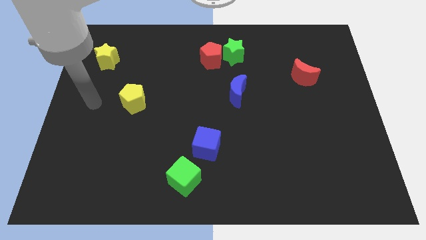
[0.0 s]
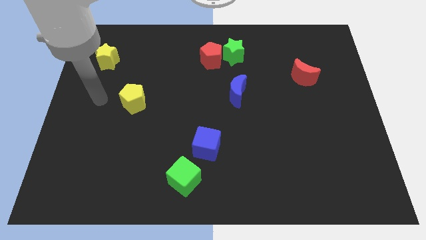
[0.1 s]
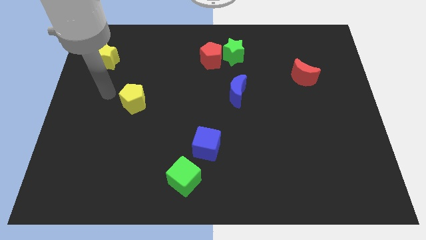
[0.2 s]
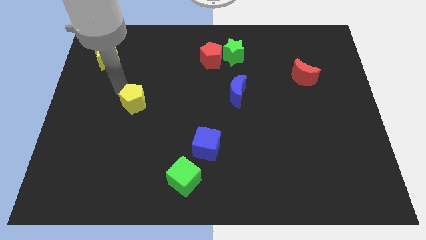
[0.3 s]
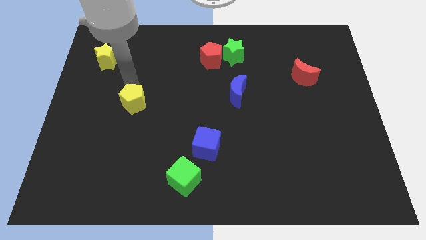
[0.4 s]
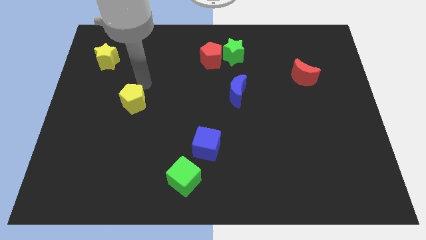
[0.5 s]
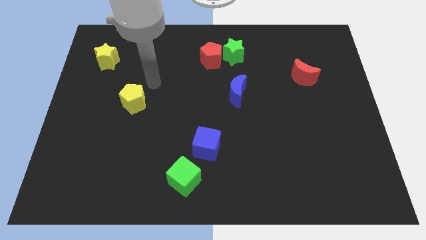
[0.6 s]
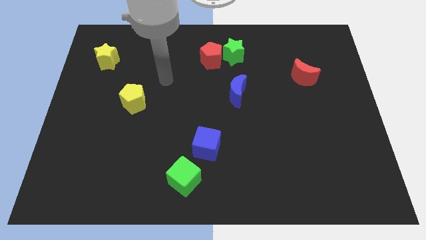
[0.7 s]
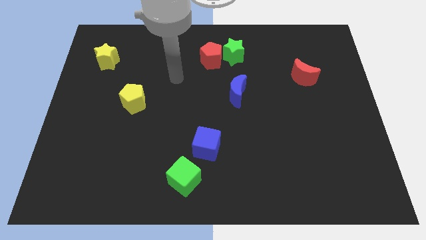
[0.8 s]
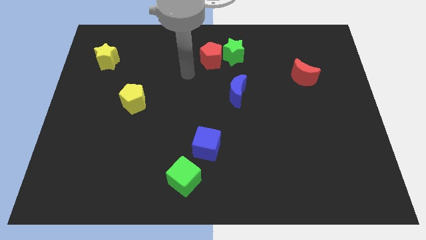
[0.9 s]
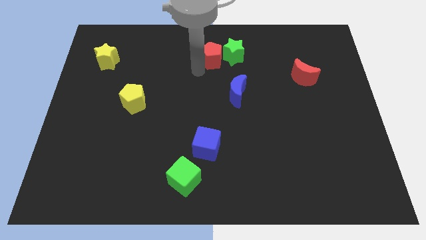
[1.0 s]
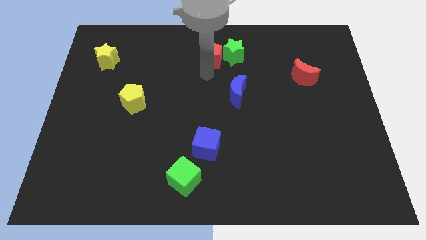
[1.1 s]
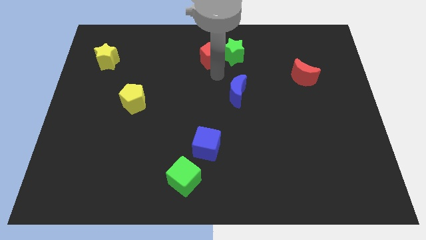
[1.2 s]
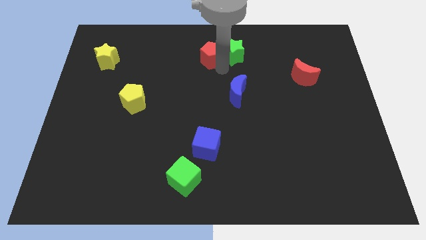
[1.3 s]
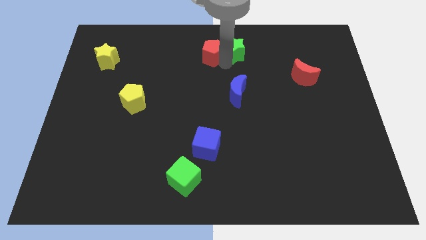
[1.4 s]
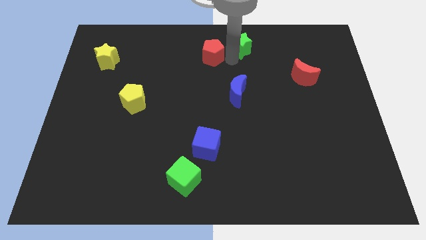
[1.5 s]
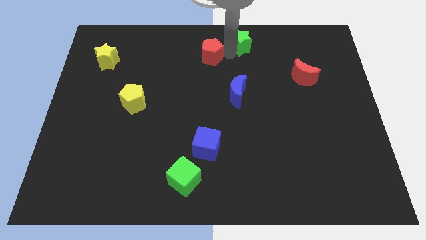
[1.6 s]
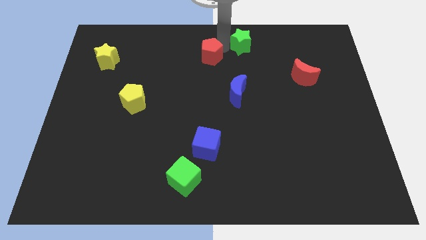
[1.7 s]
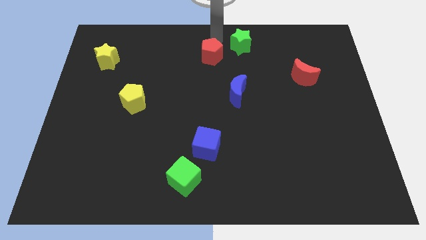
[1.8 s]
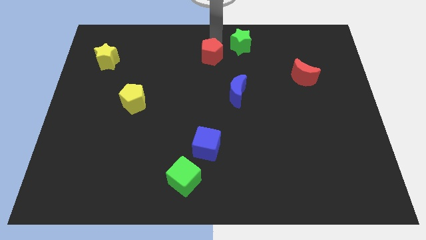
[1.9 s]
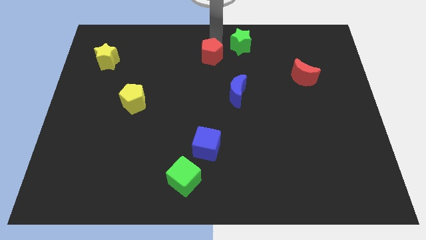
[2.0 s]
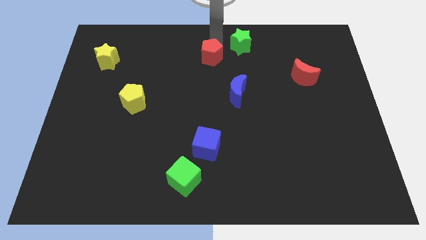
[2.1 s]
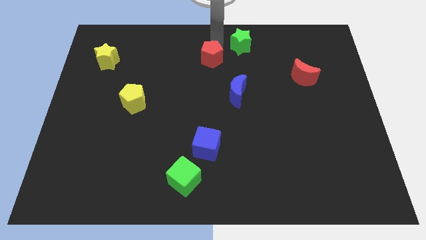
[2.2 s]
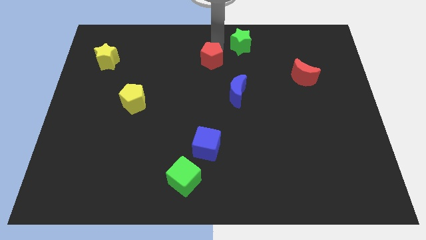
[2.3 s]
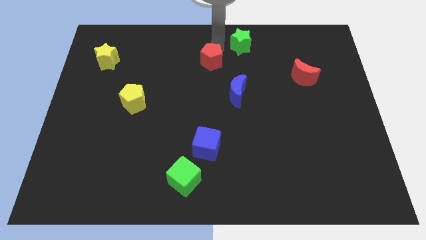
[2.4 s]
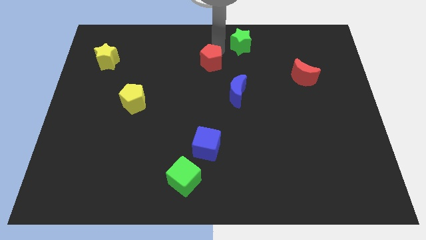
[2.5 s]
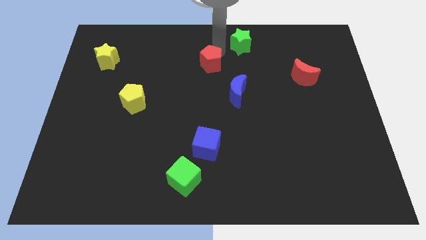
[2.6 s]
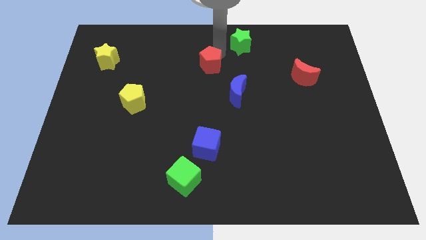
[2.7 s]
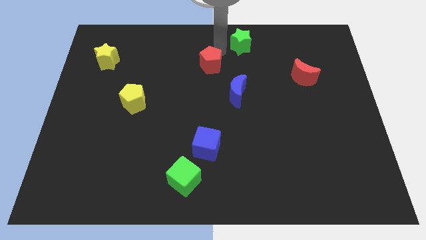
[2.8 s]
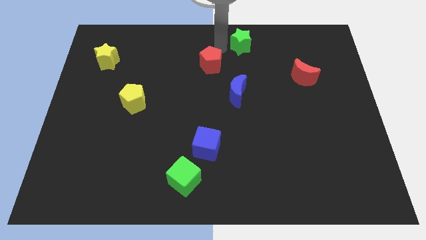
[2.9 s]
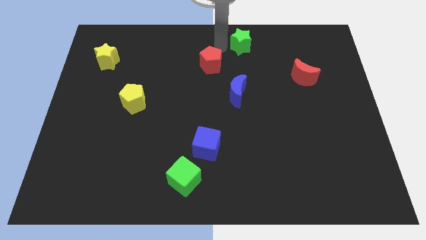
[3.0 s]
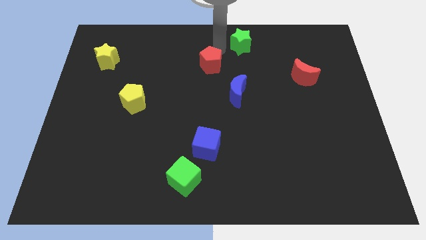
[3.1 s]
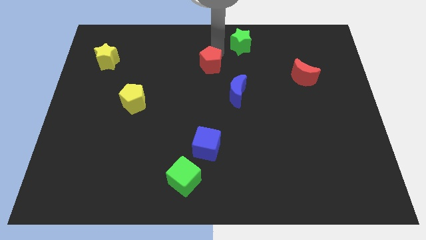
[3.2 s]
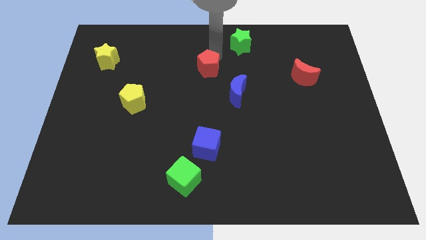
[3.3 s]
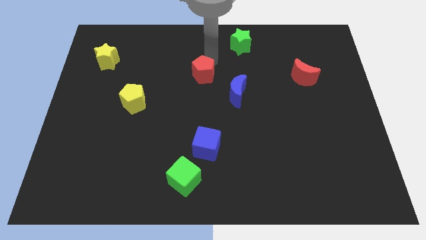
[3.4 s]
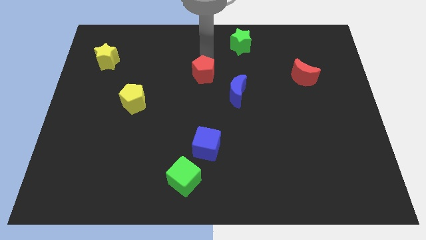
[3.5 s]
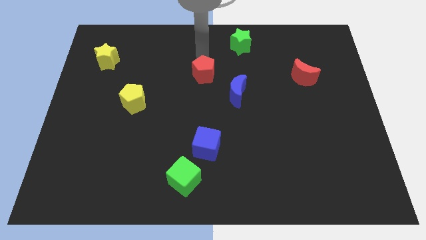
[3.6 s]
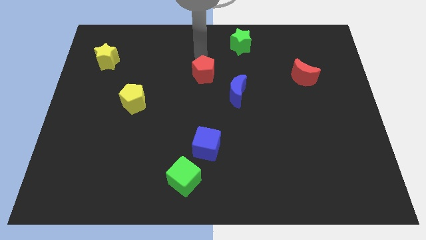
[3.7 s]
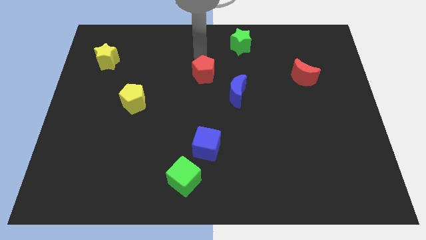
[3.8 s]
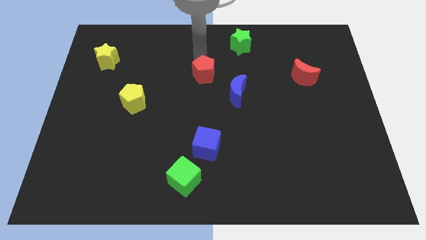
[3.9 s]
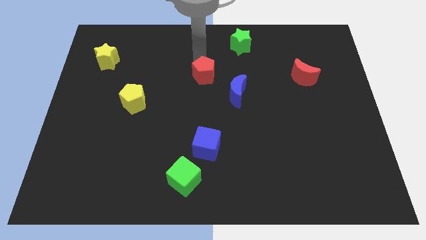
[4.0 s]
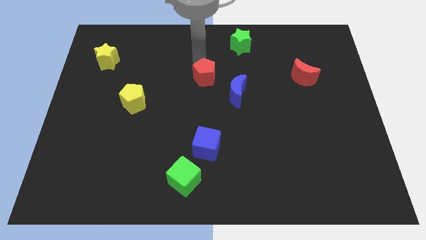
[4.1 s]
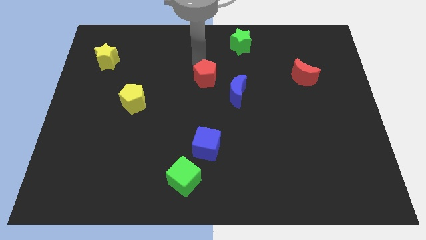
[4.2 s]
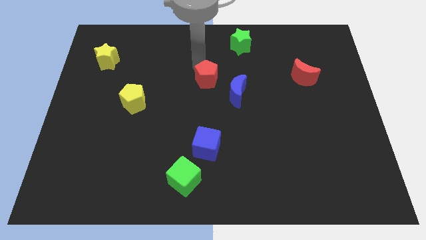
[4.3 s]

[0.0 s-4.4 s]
slightly slide the red pentagon down

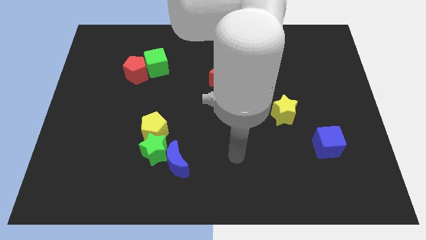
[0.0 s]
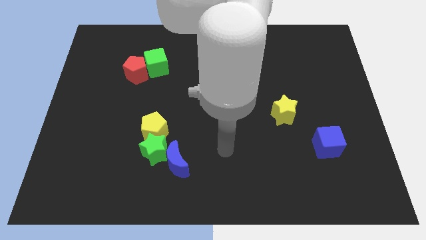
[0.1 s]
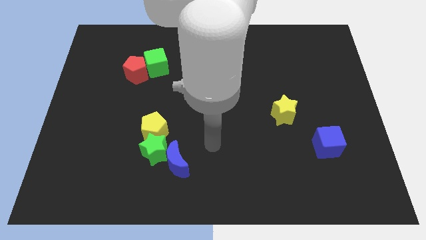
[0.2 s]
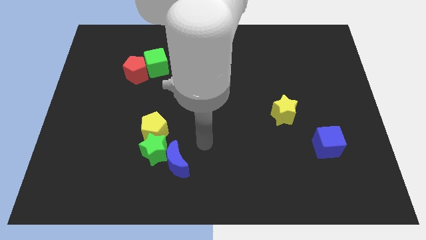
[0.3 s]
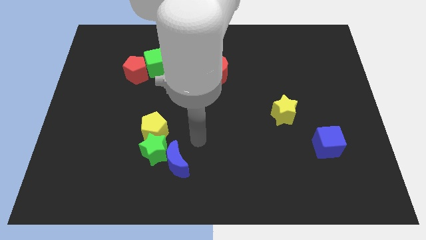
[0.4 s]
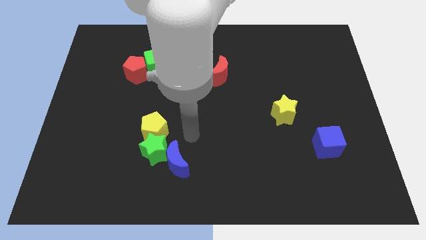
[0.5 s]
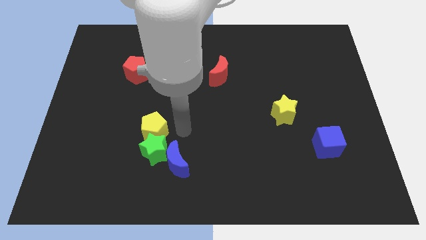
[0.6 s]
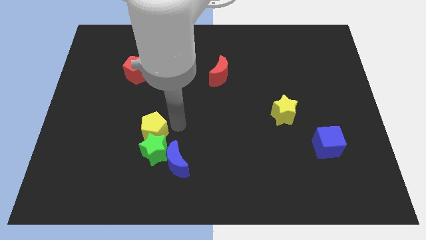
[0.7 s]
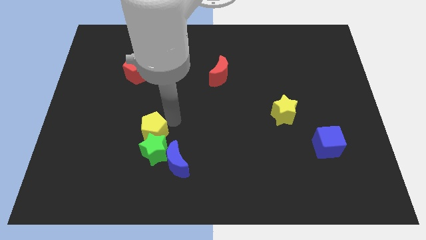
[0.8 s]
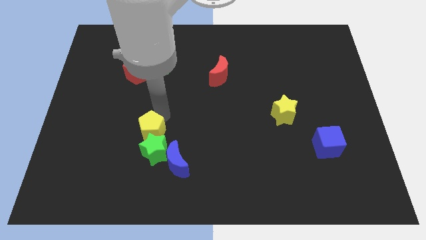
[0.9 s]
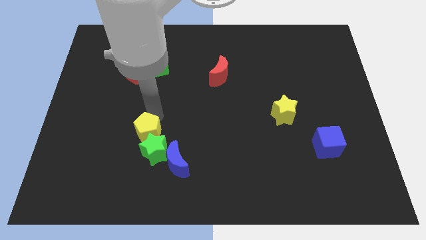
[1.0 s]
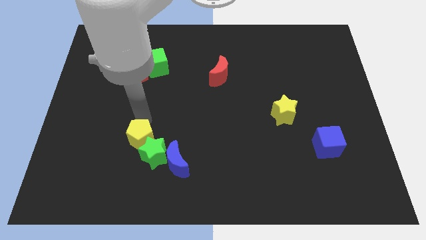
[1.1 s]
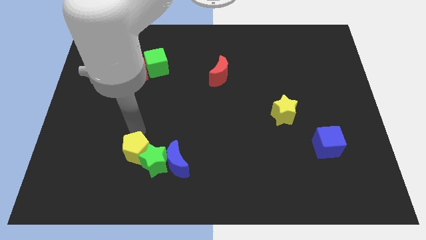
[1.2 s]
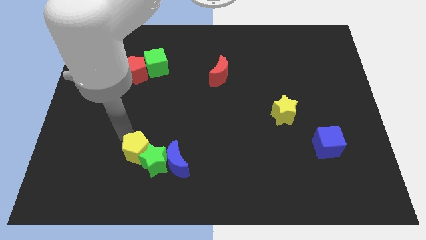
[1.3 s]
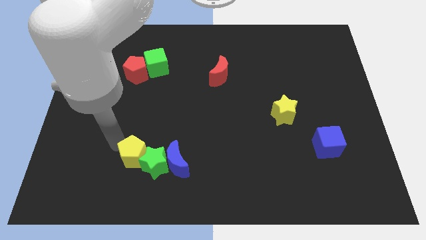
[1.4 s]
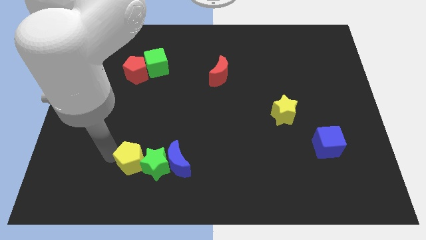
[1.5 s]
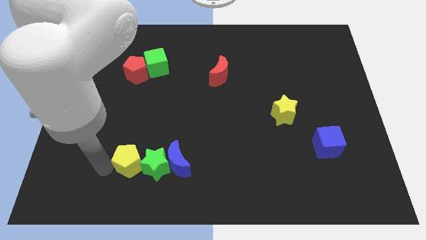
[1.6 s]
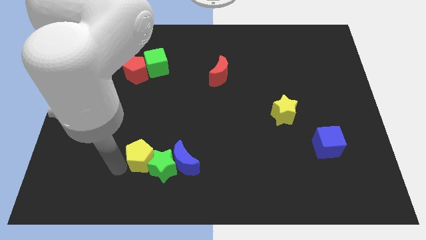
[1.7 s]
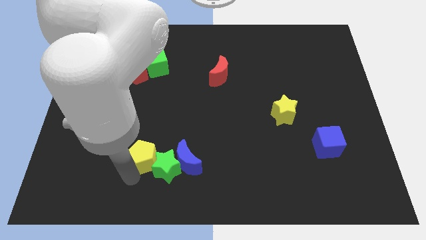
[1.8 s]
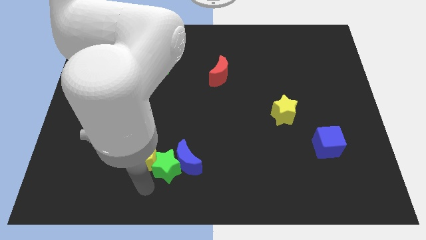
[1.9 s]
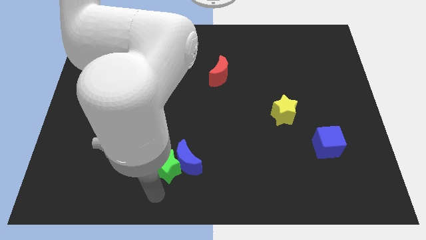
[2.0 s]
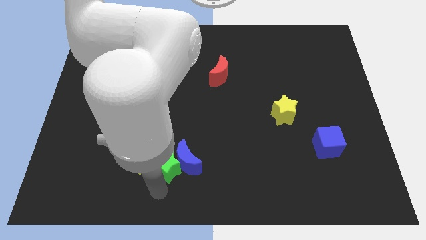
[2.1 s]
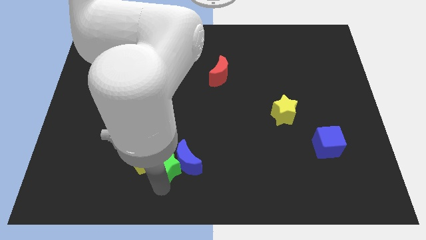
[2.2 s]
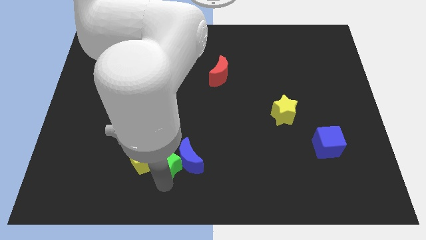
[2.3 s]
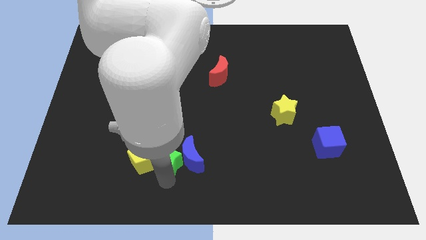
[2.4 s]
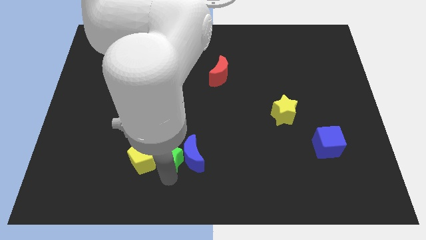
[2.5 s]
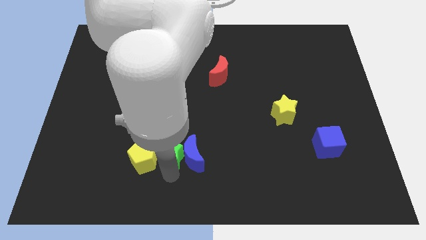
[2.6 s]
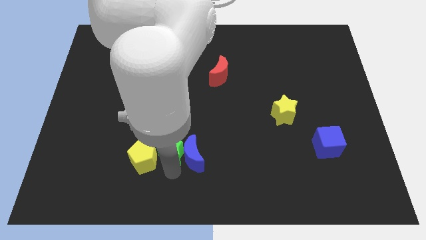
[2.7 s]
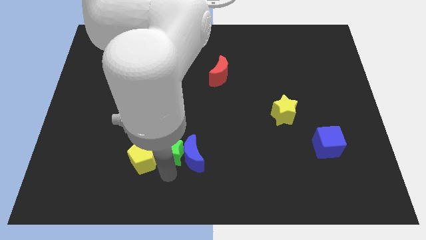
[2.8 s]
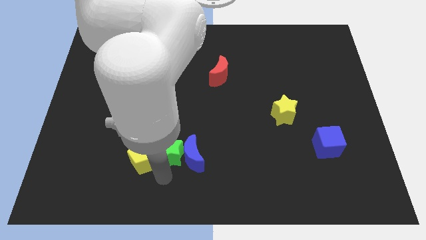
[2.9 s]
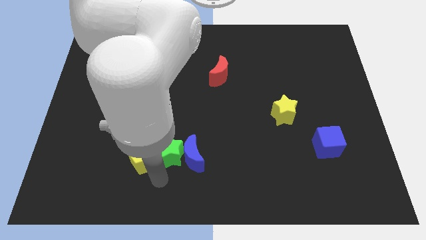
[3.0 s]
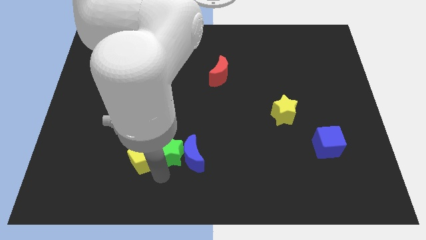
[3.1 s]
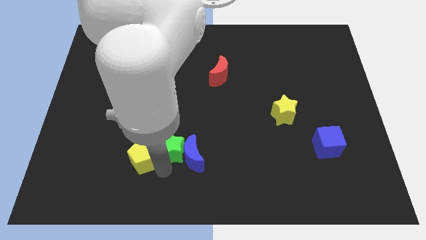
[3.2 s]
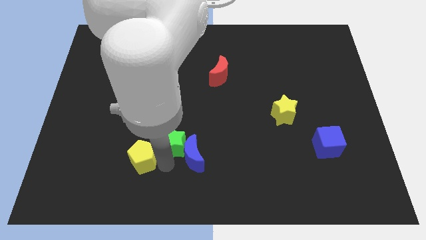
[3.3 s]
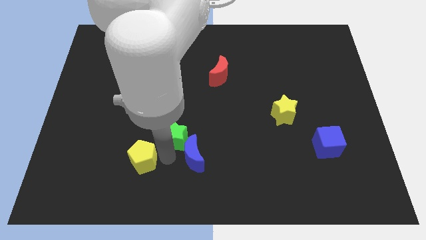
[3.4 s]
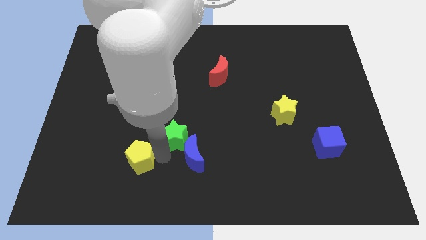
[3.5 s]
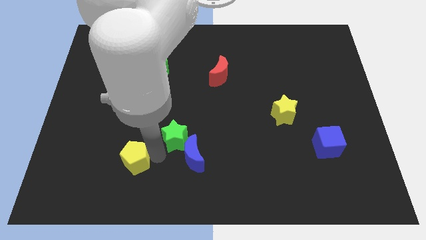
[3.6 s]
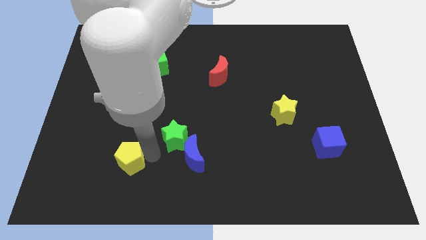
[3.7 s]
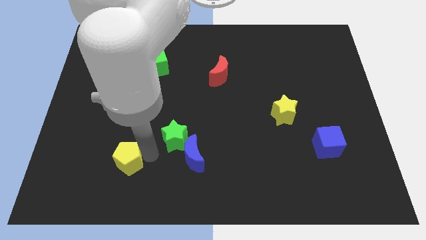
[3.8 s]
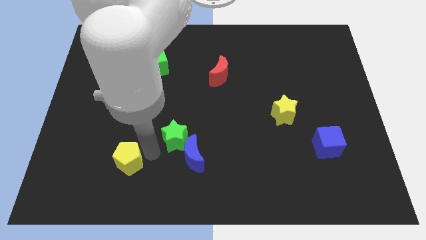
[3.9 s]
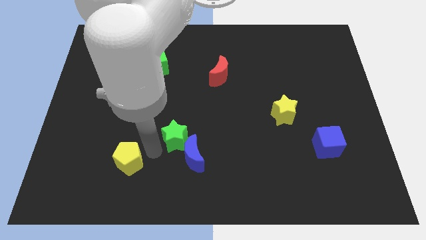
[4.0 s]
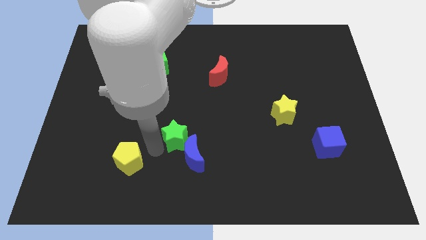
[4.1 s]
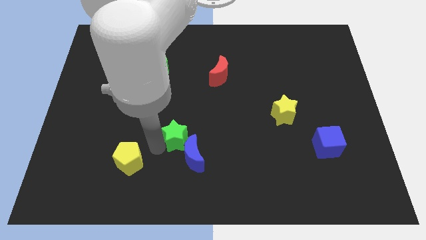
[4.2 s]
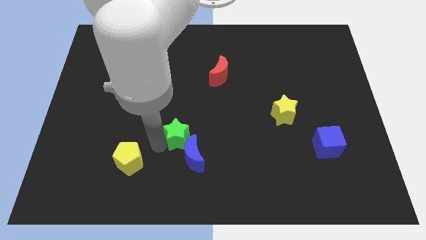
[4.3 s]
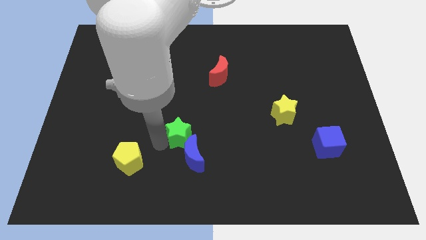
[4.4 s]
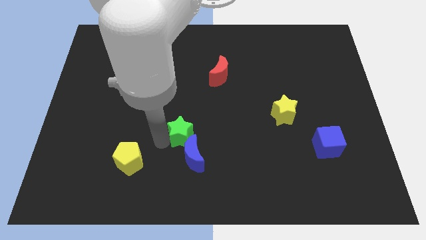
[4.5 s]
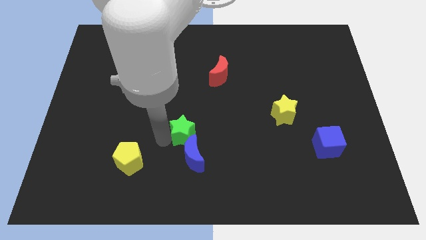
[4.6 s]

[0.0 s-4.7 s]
move the green star a bit diagonally up and to the right
